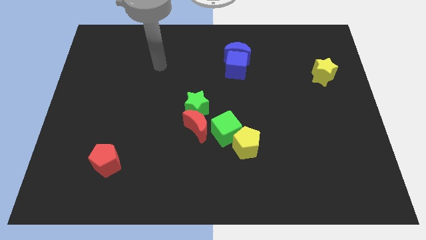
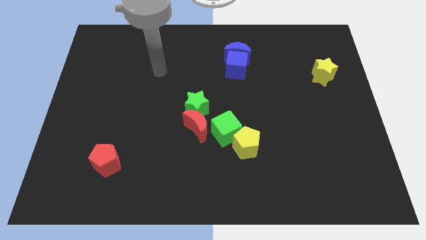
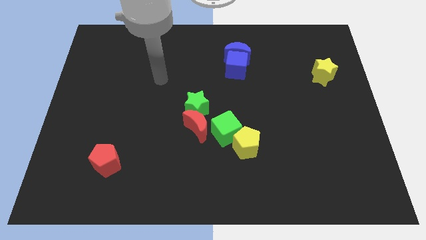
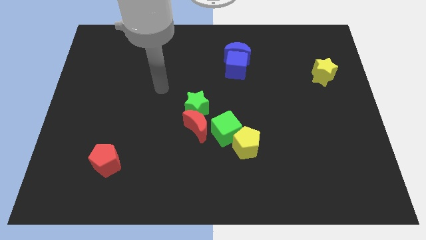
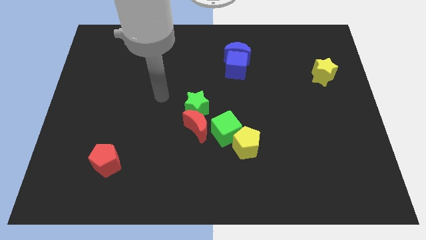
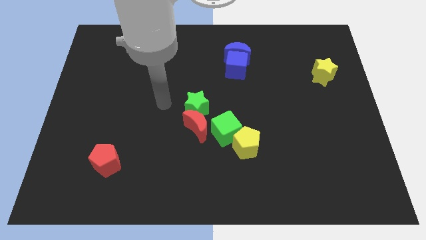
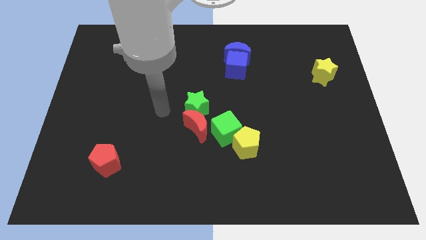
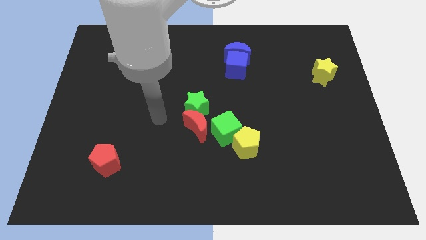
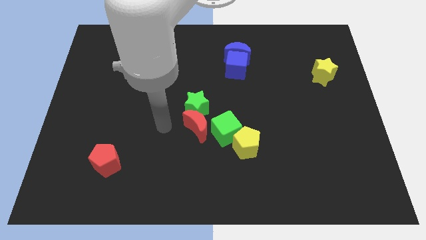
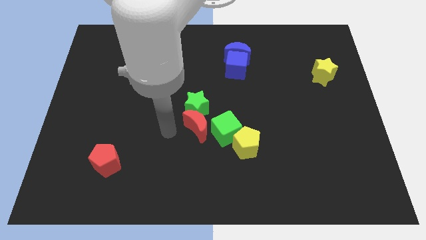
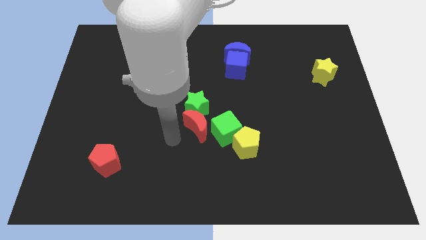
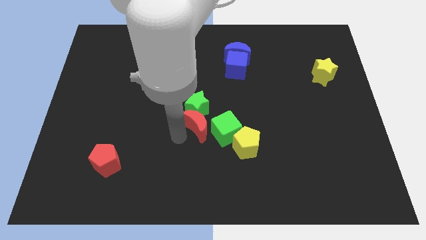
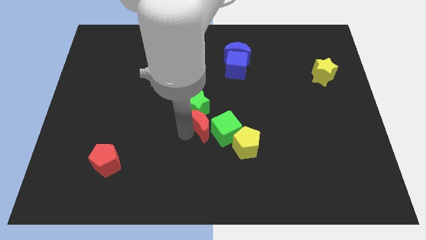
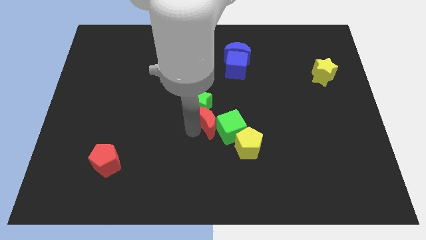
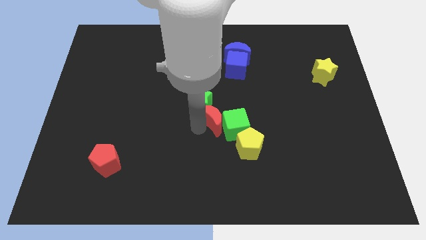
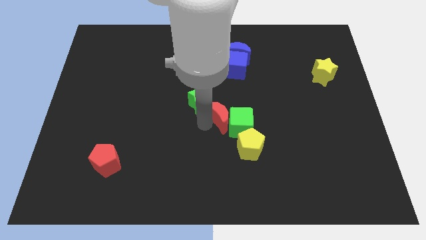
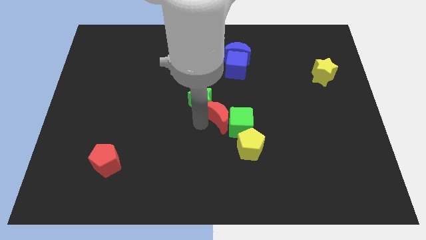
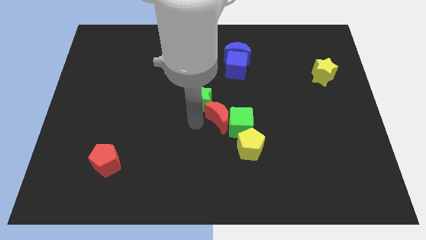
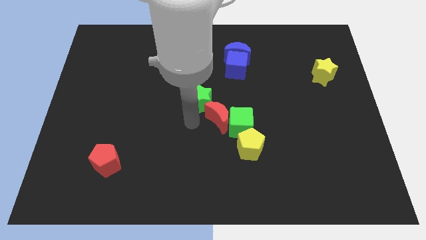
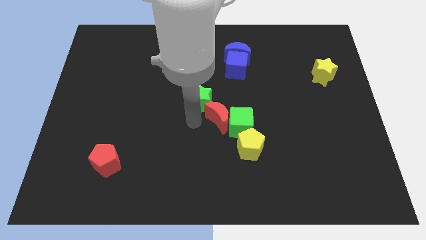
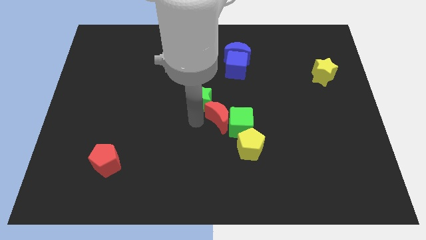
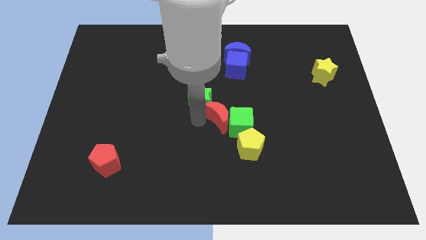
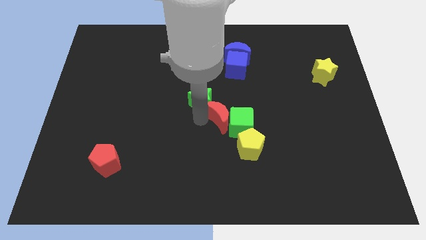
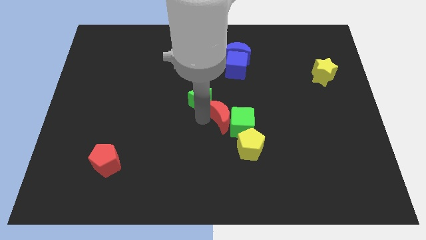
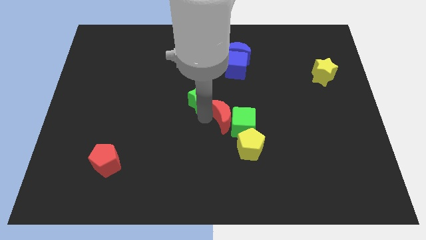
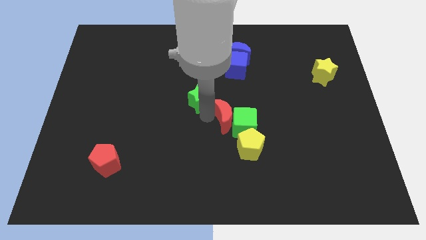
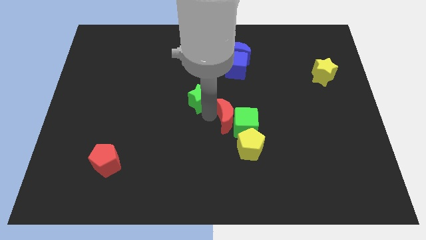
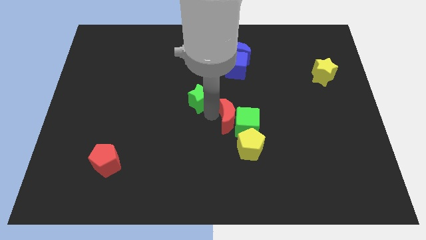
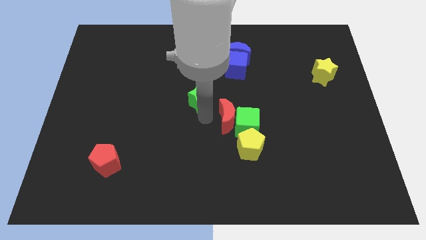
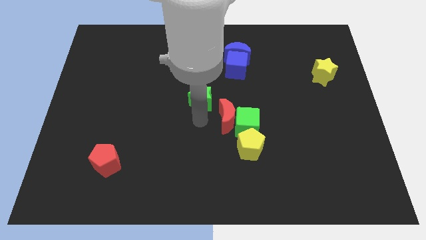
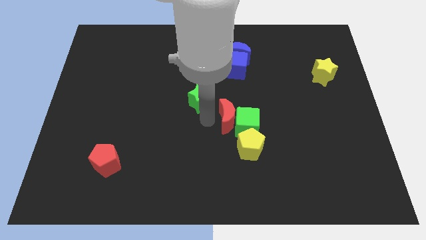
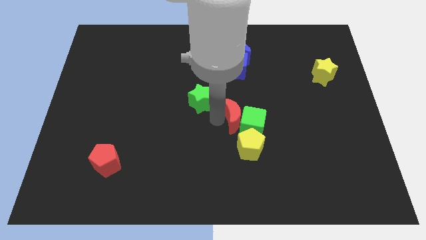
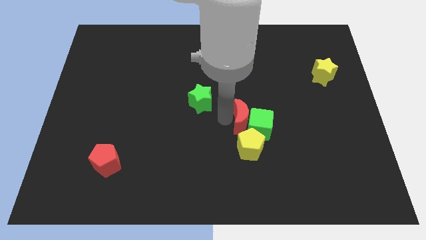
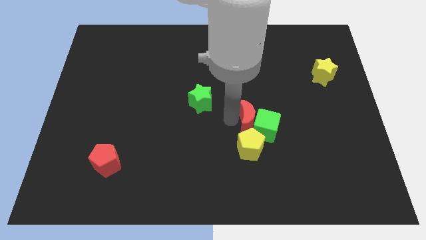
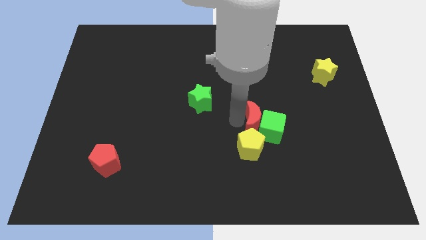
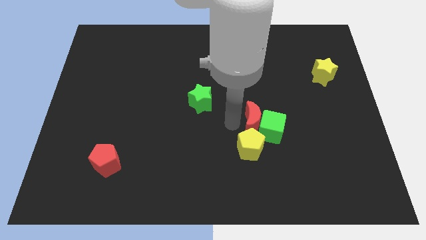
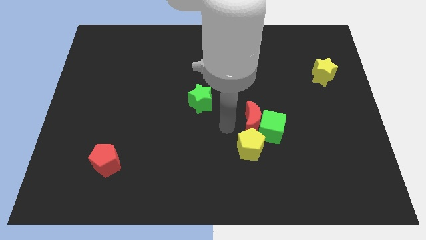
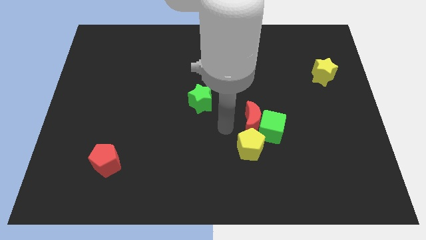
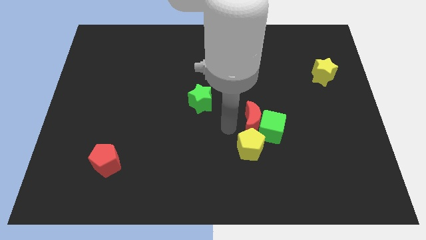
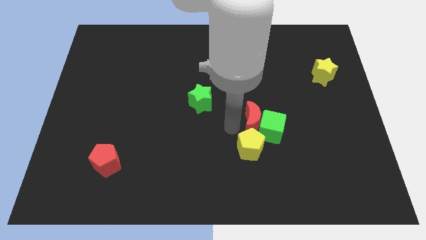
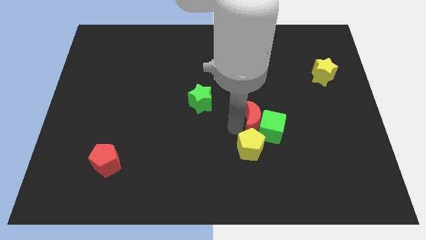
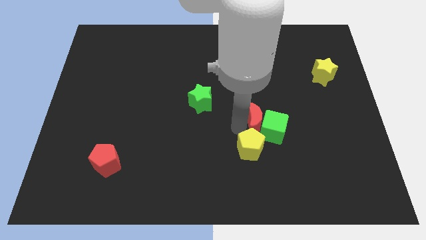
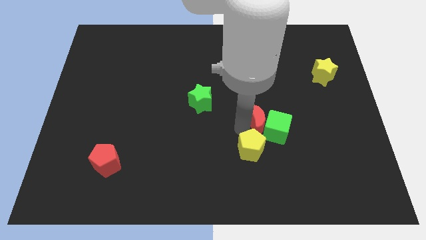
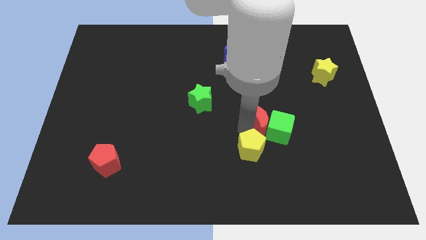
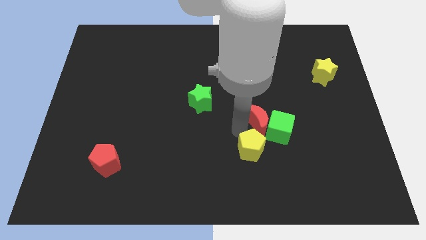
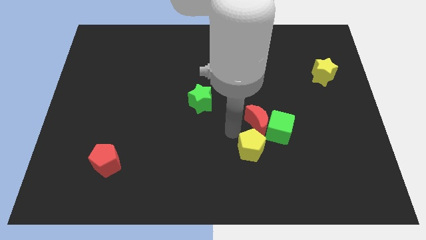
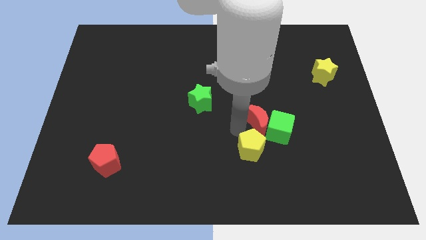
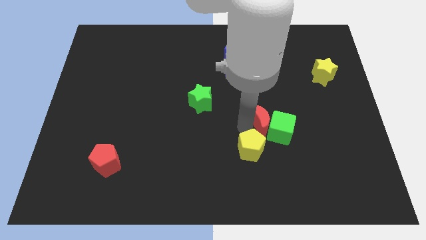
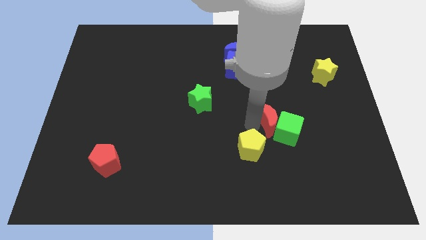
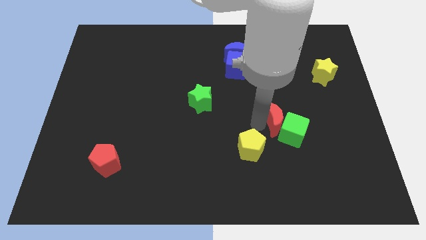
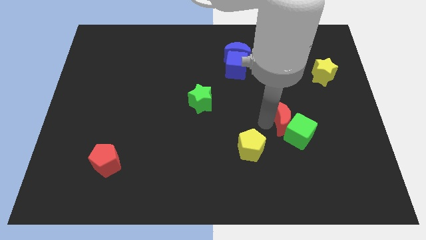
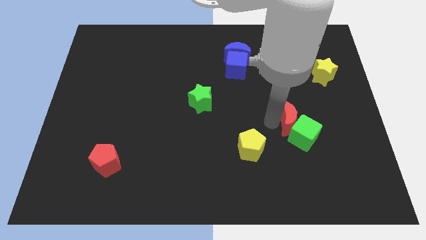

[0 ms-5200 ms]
slide the red moon right

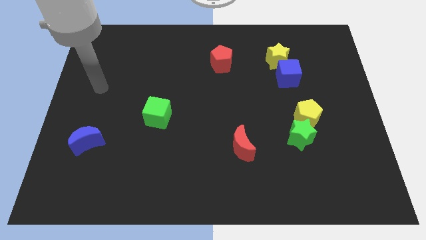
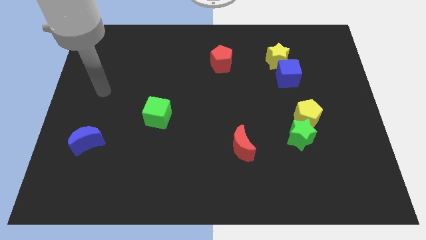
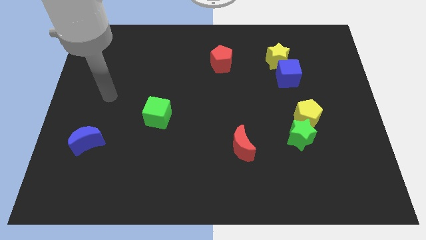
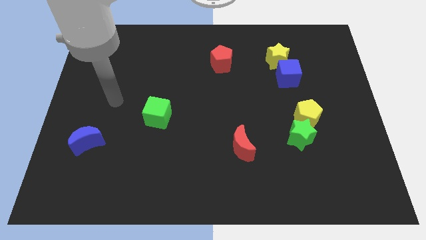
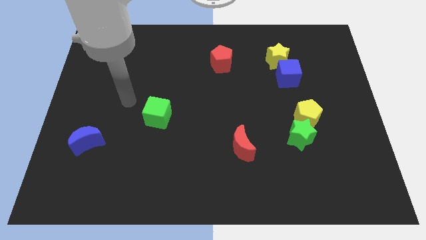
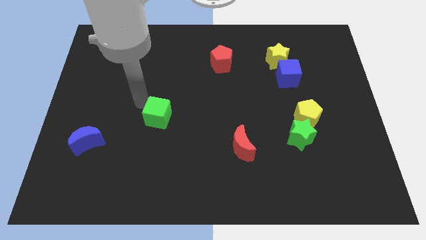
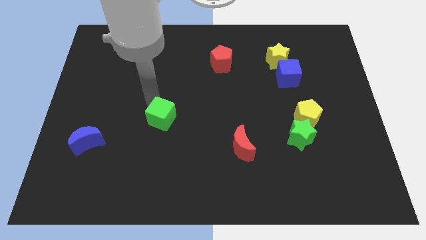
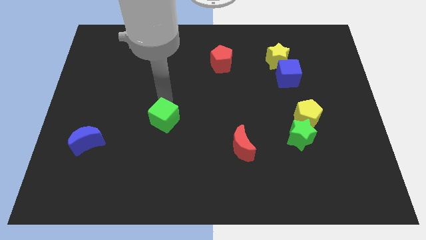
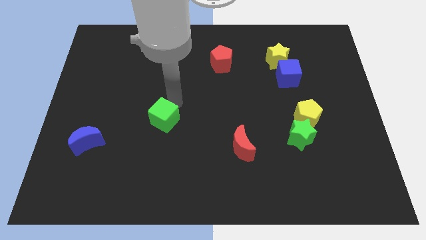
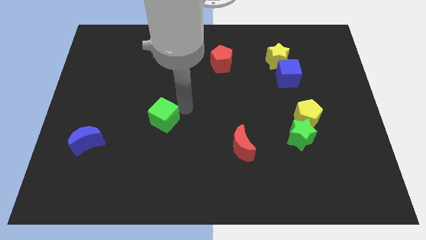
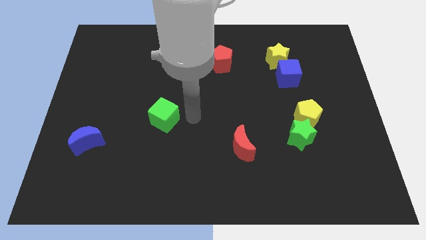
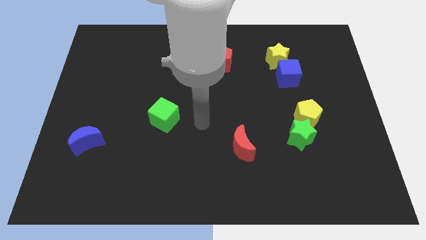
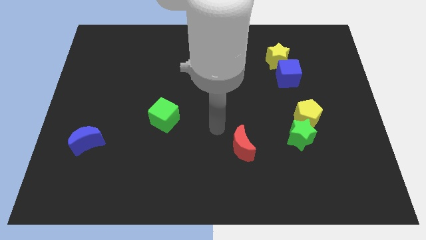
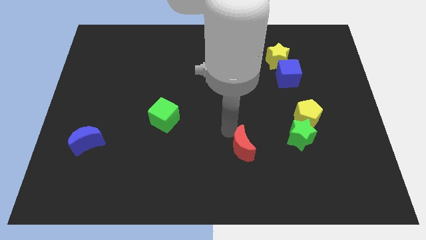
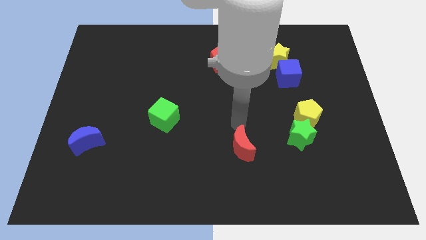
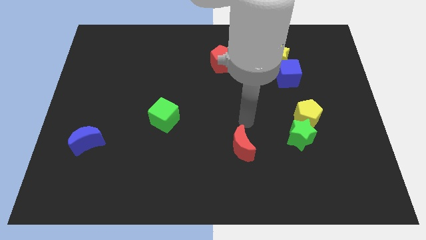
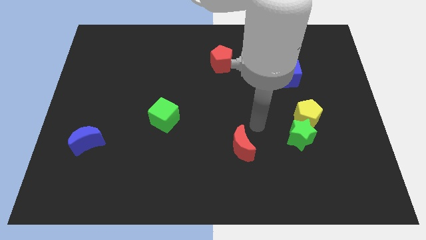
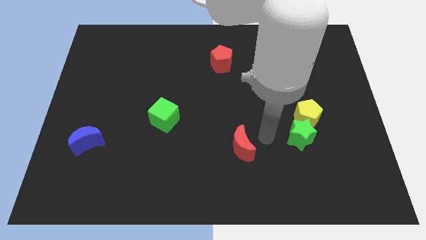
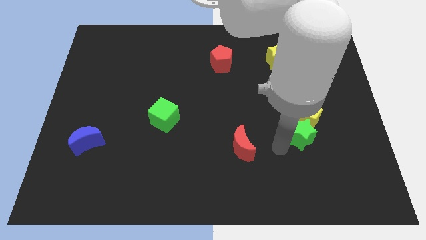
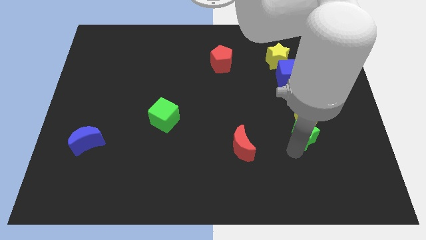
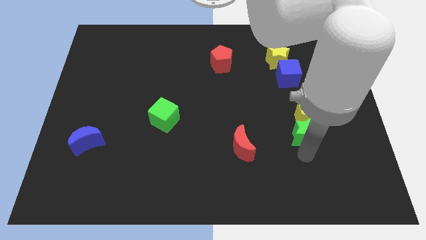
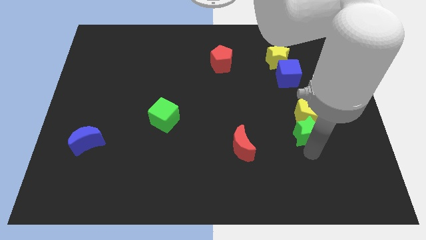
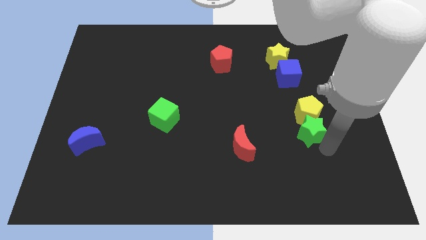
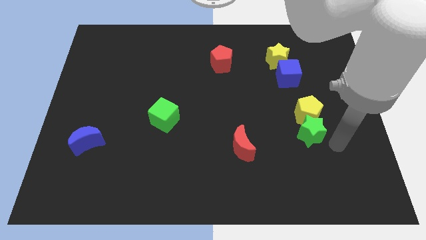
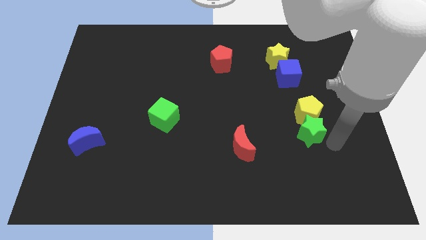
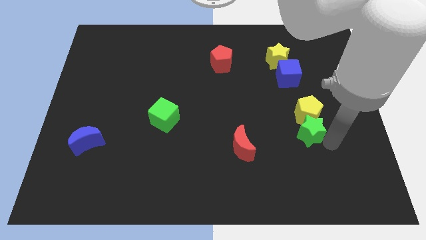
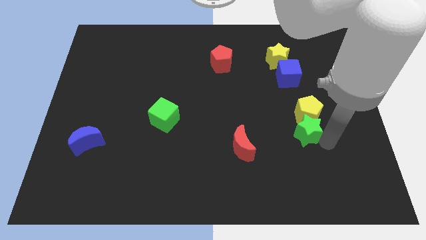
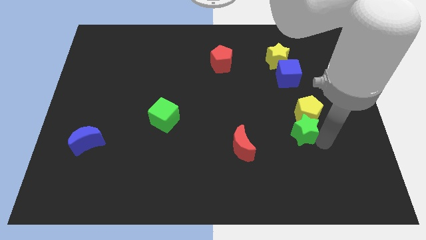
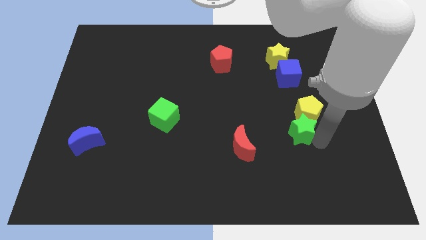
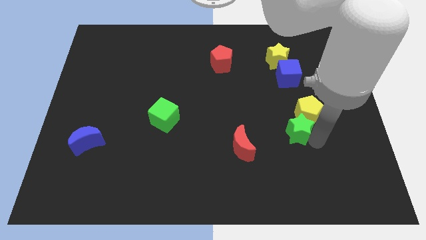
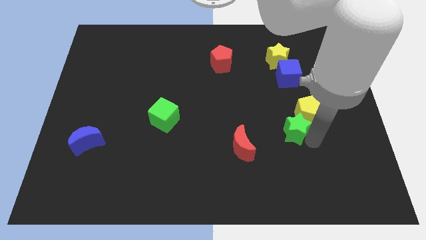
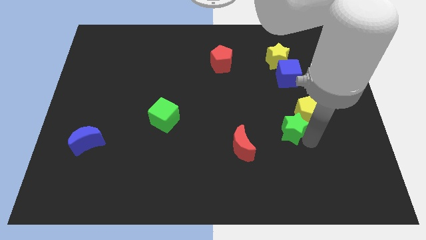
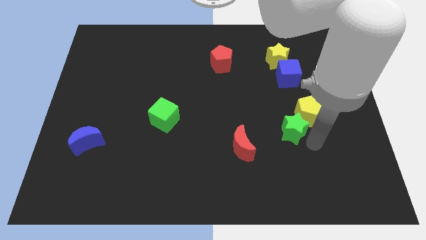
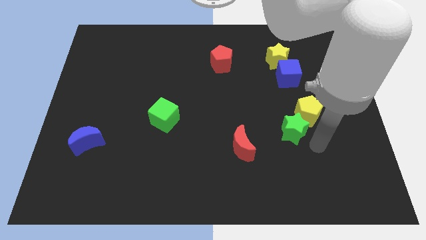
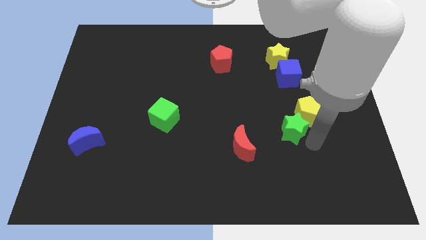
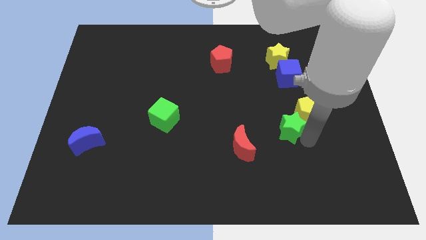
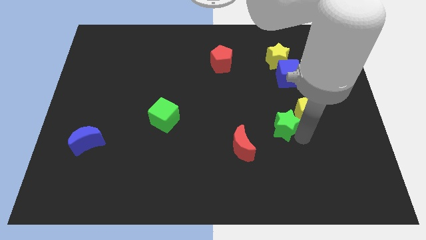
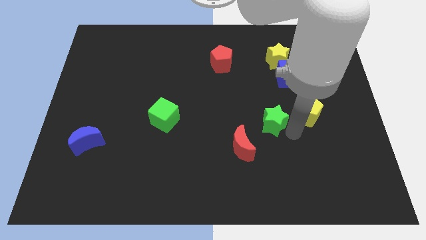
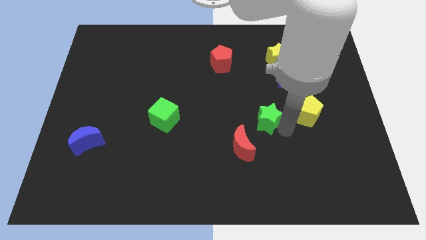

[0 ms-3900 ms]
slide the green star upwards and then to the left a bit
